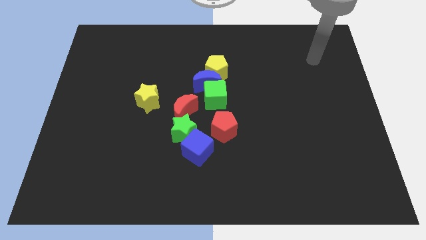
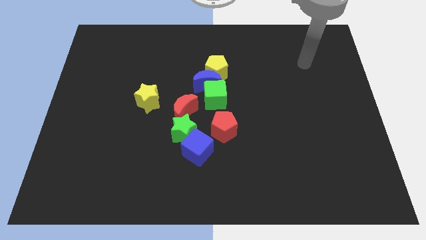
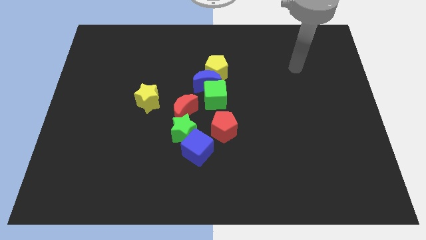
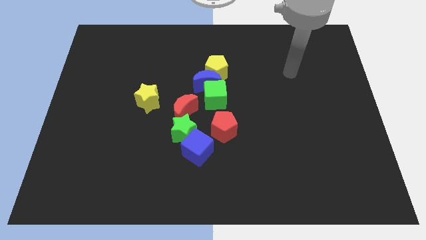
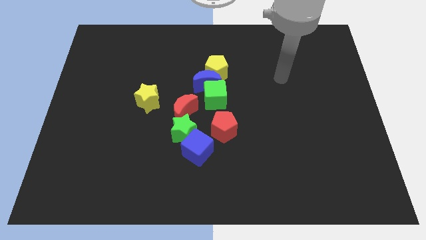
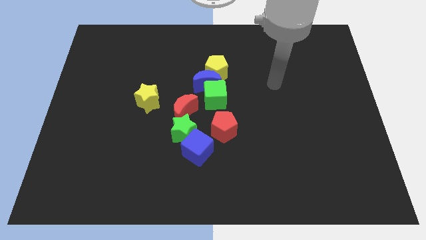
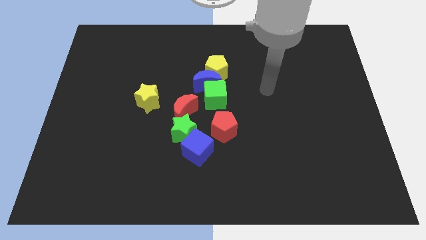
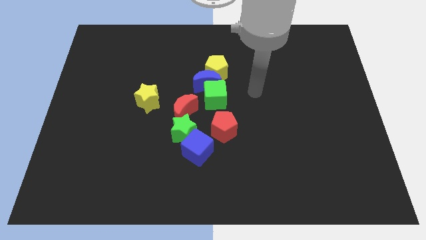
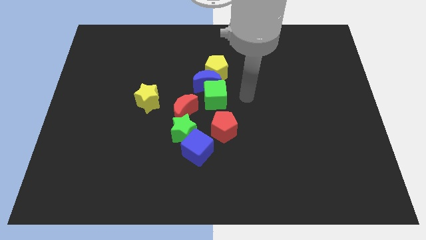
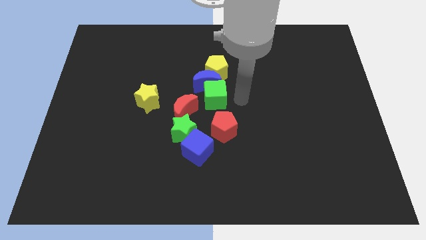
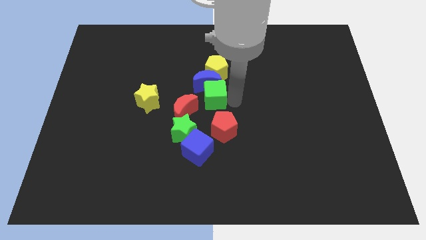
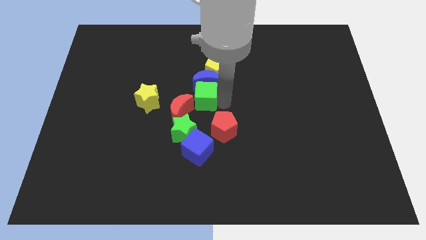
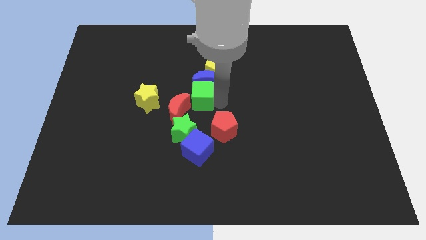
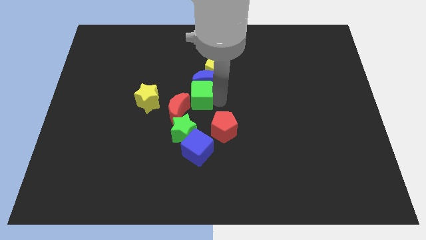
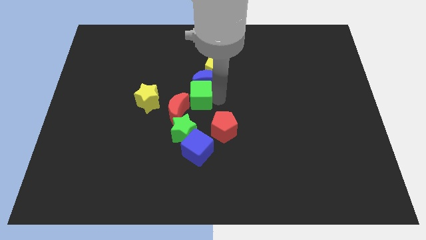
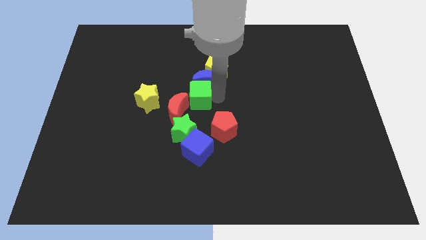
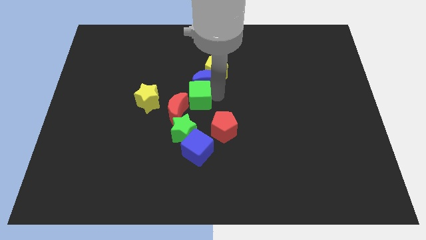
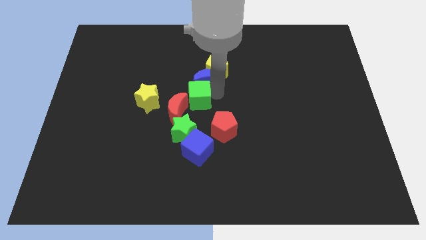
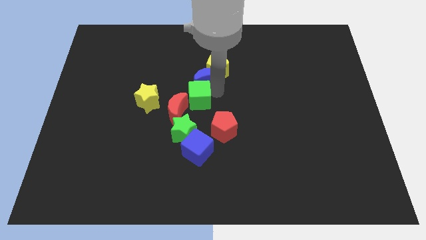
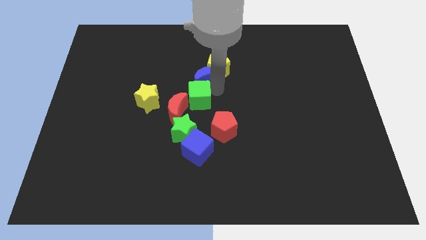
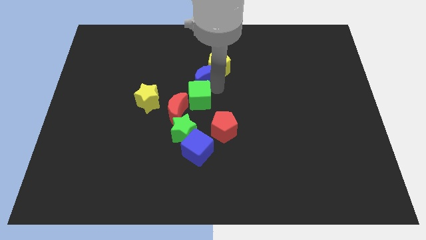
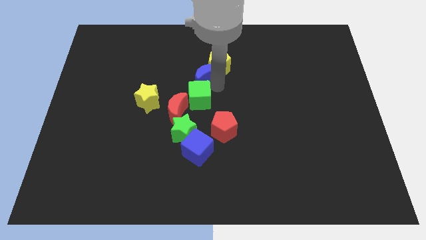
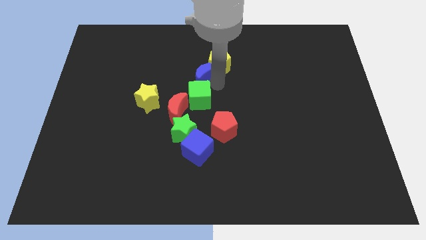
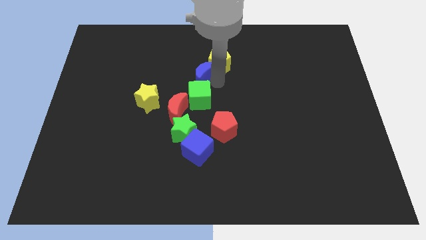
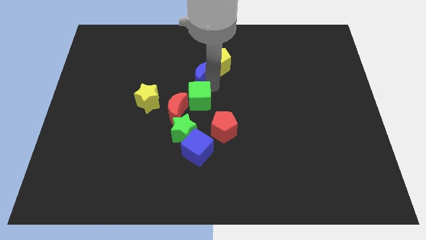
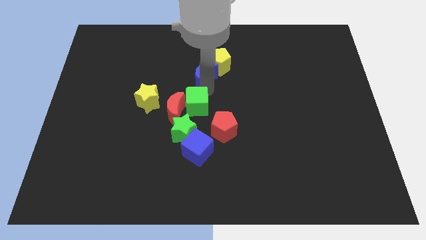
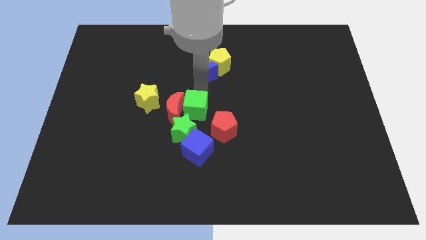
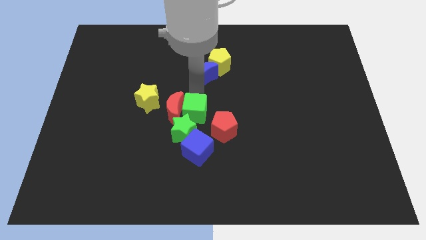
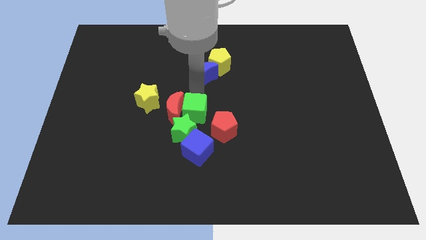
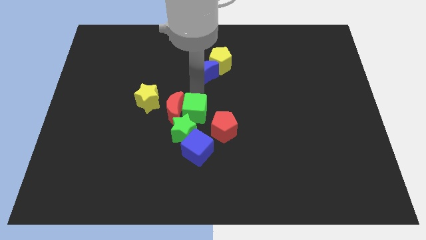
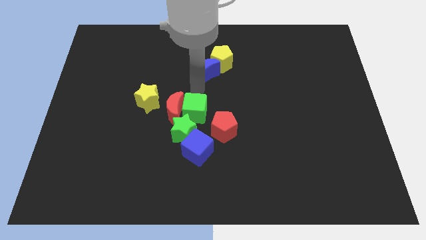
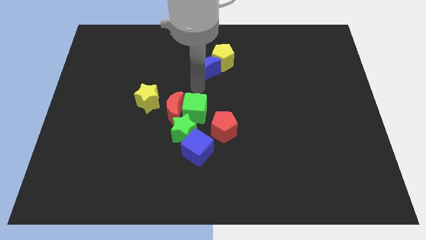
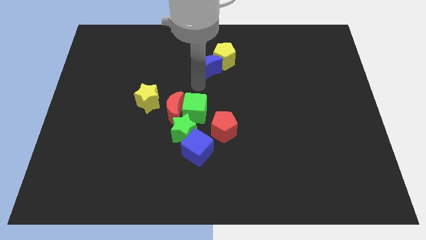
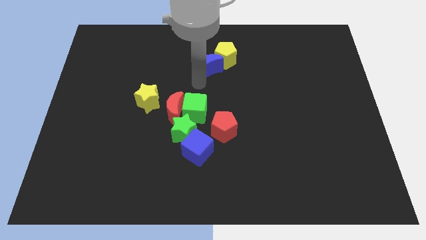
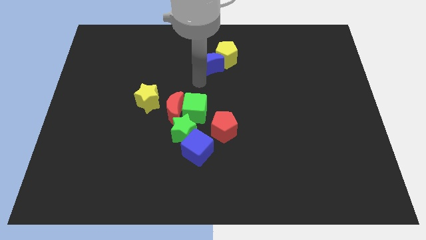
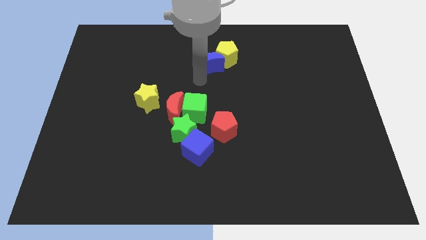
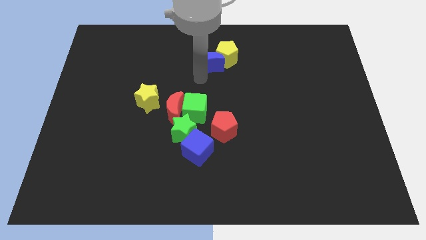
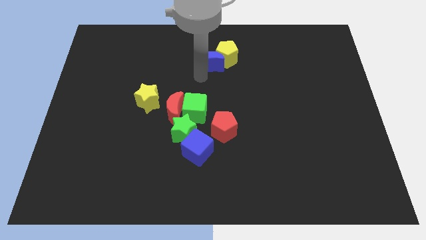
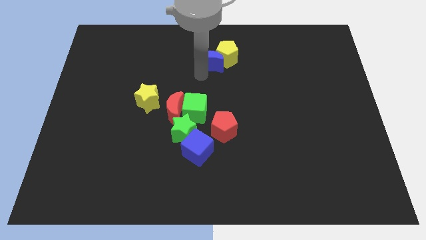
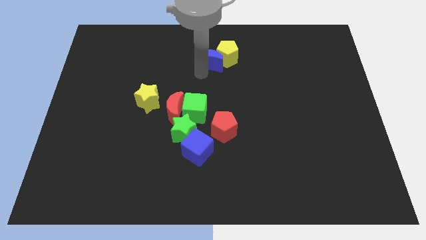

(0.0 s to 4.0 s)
separate the blue moon from the group of blocks

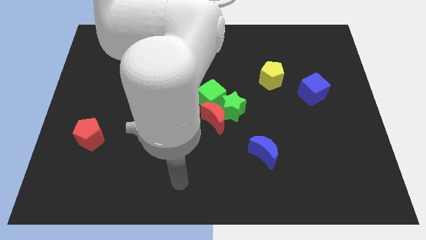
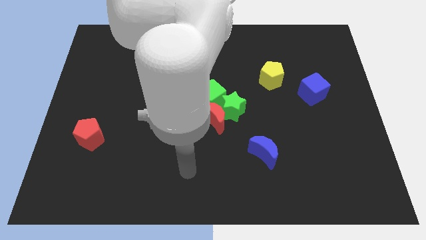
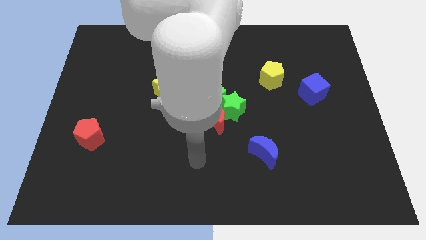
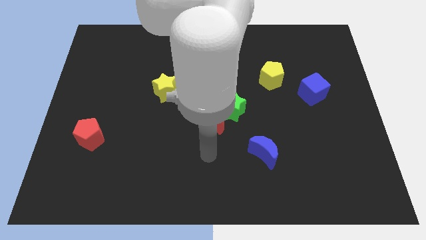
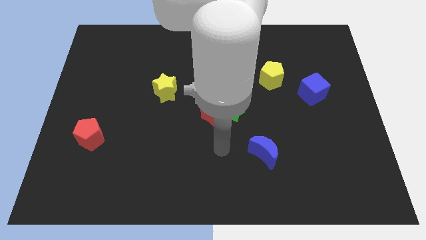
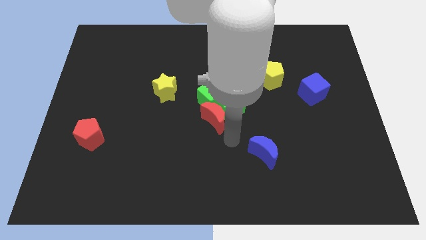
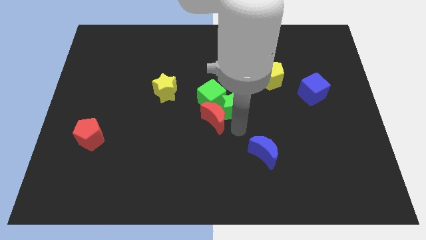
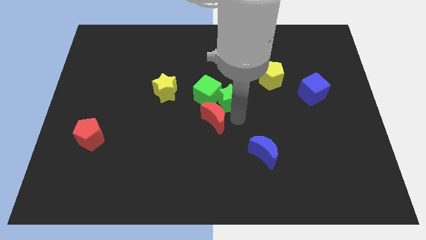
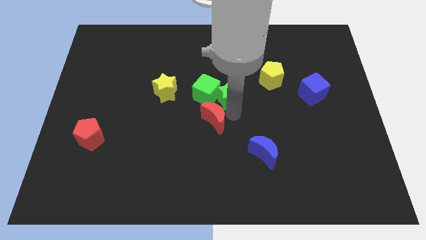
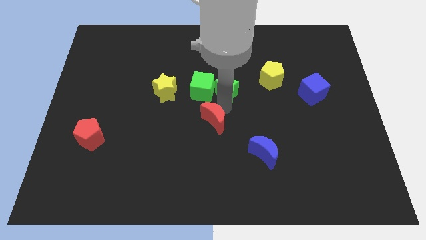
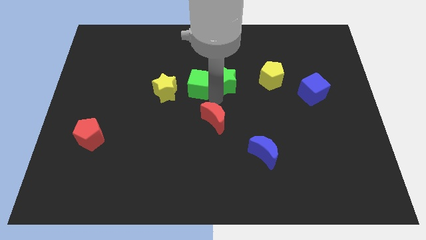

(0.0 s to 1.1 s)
pull the red moon apart from the green star and green cube

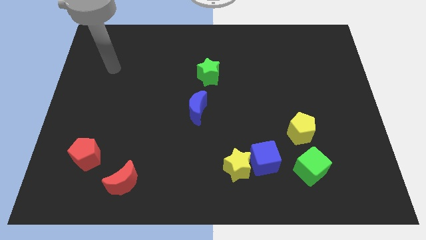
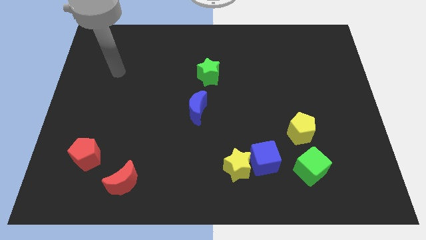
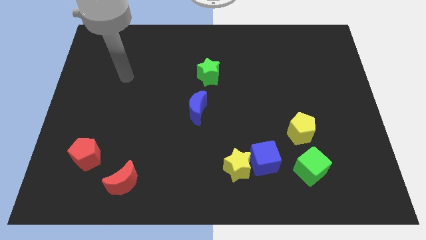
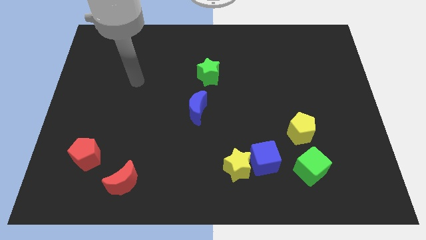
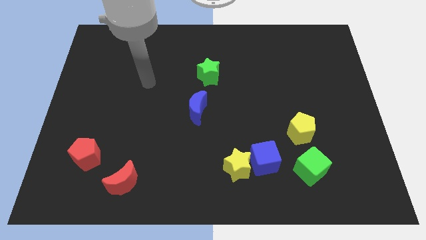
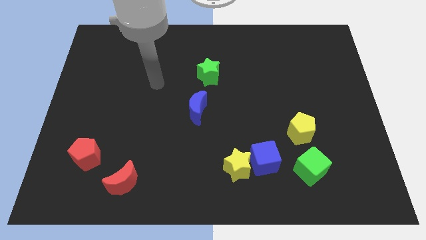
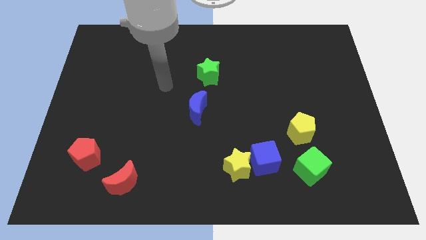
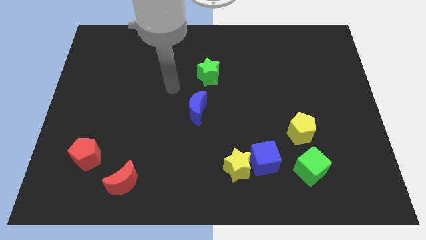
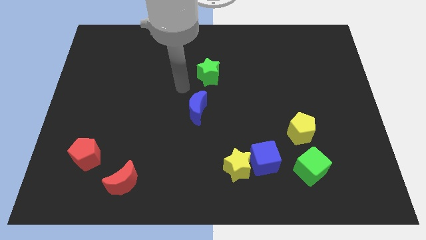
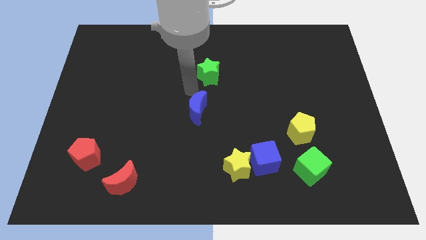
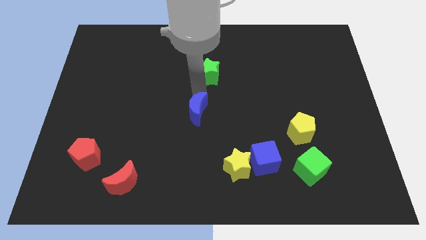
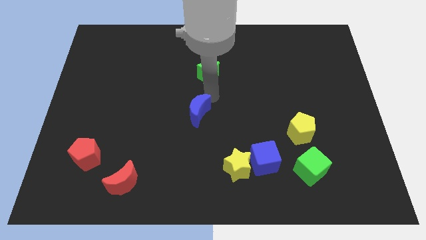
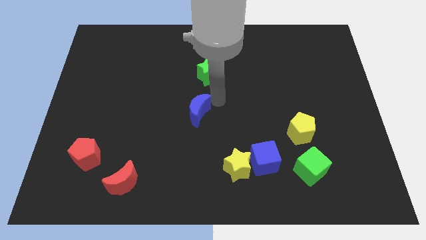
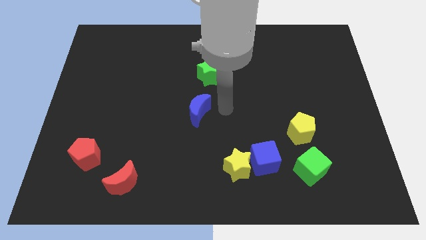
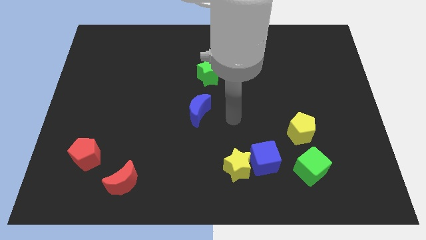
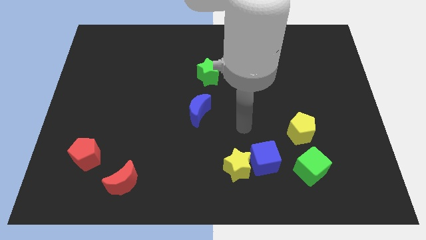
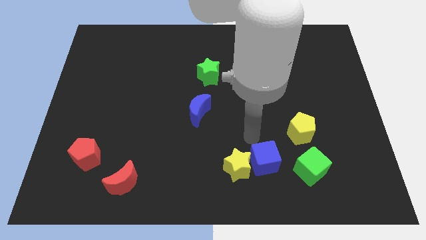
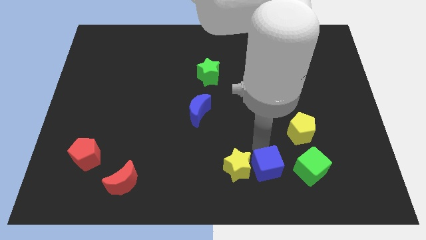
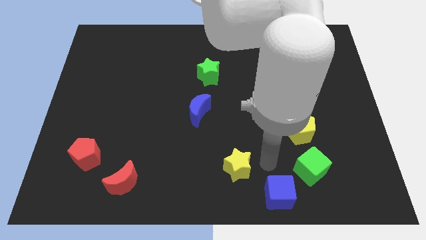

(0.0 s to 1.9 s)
pull the yellow star apart from the blue cube

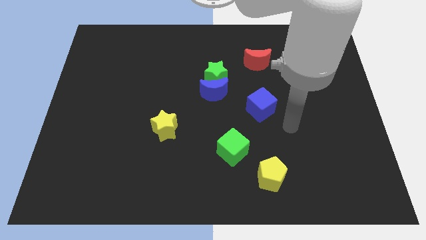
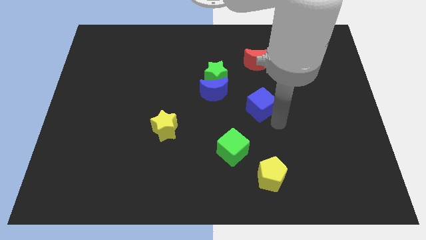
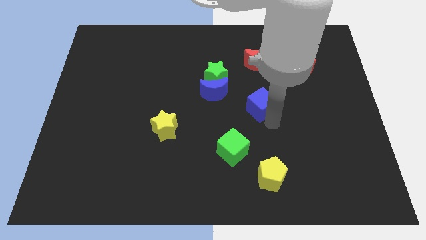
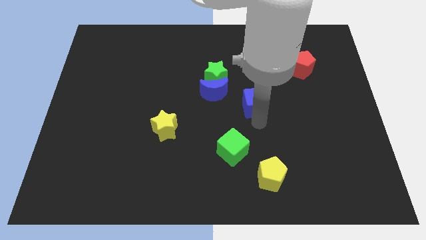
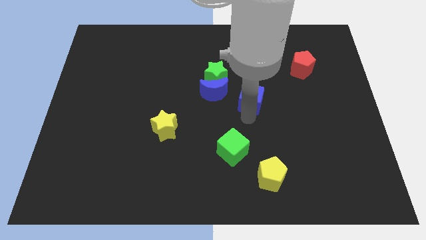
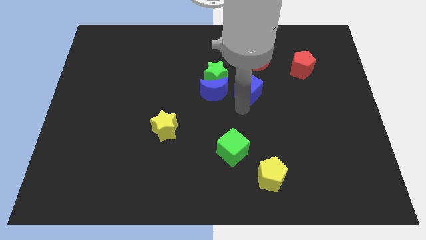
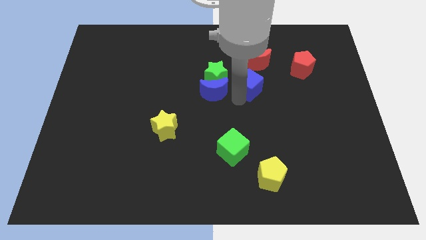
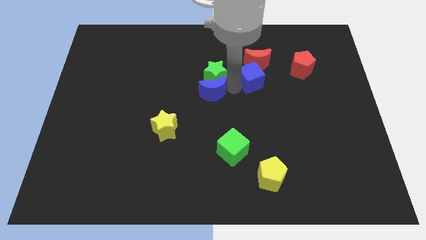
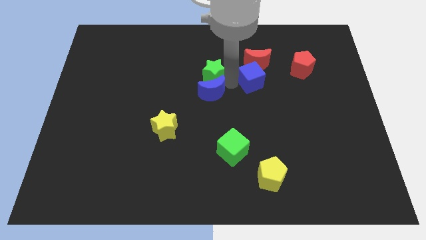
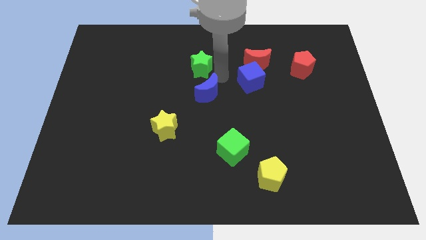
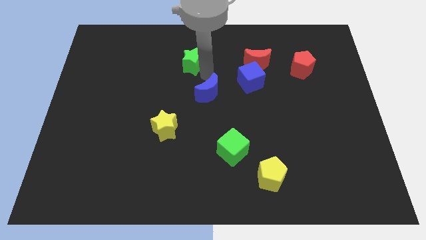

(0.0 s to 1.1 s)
separate the blue moon from the green star

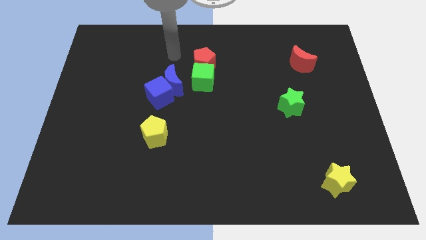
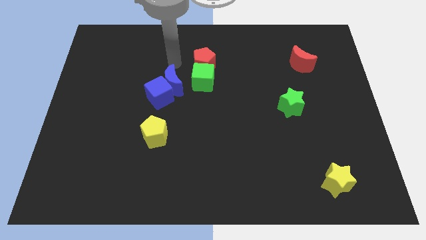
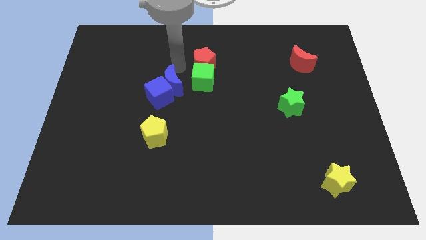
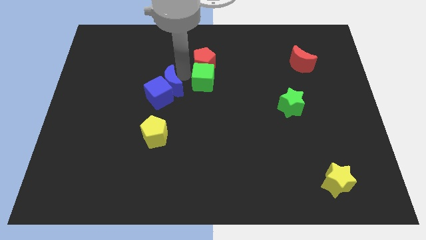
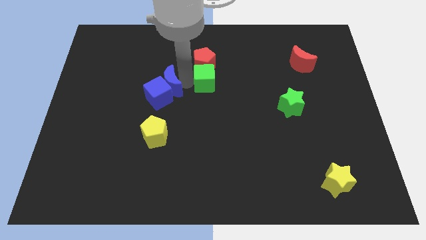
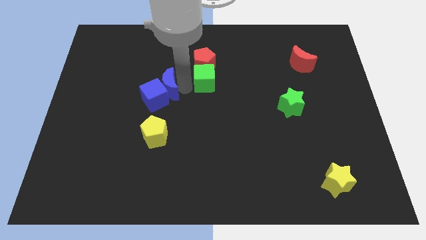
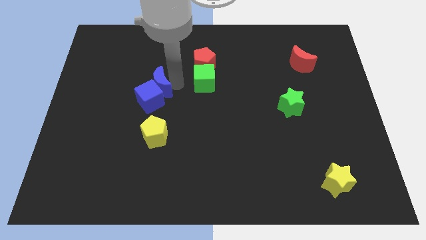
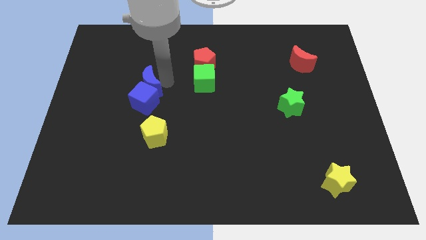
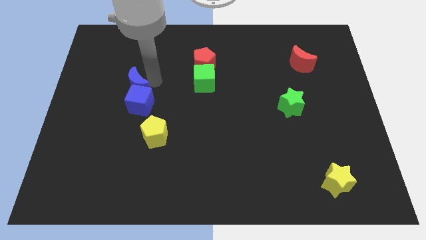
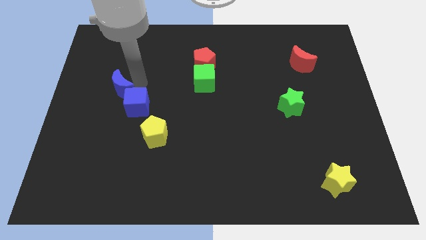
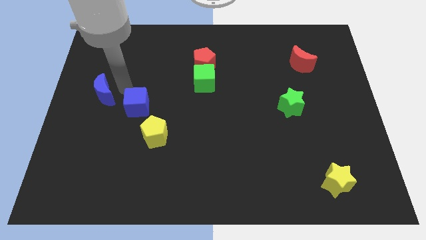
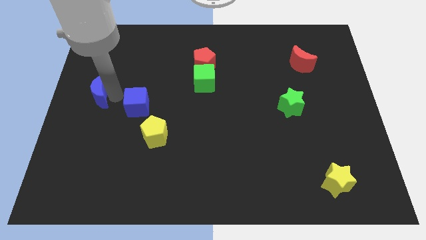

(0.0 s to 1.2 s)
pull the blue cube apart from the blue moon
